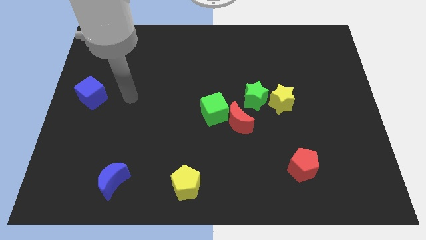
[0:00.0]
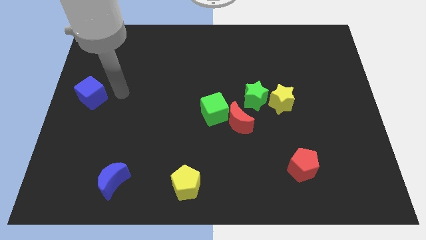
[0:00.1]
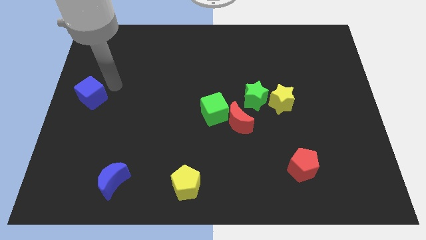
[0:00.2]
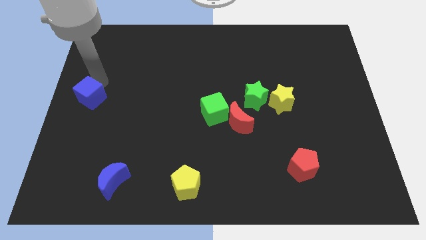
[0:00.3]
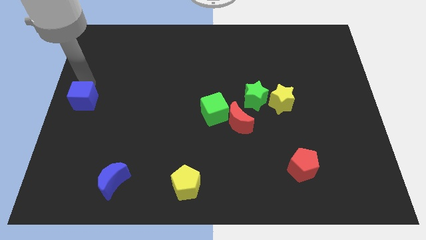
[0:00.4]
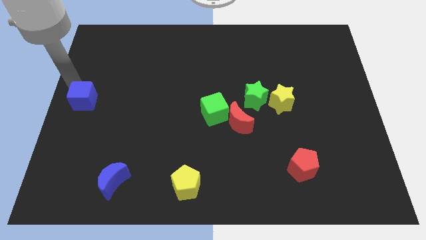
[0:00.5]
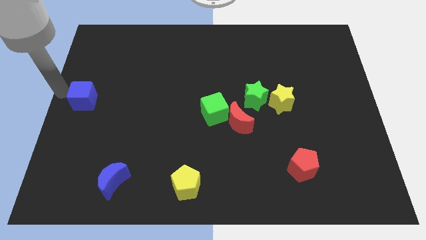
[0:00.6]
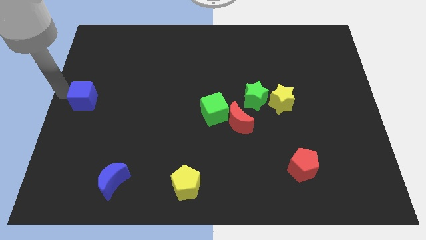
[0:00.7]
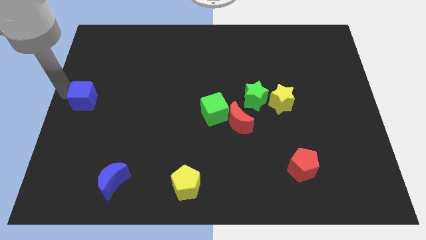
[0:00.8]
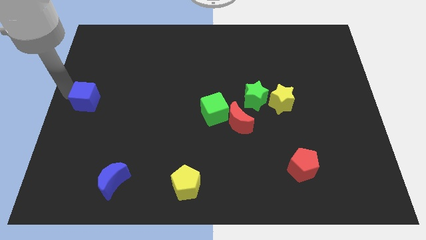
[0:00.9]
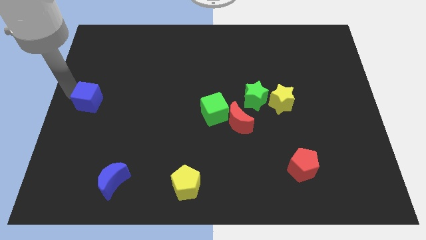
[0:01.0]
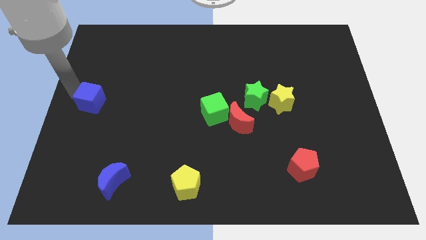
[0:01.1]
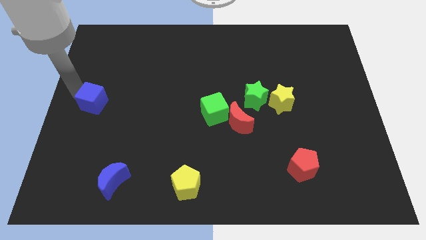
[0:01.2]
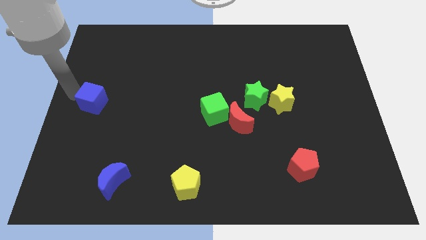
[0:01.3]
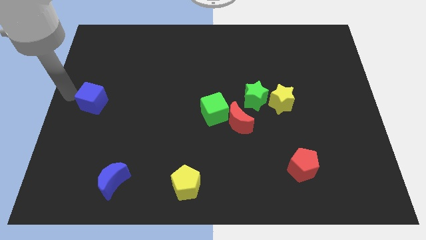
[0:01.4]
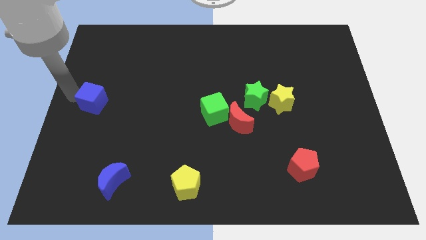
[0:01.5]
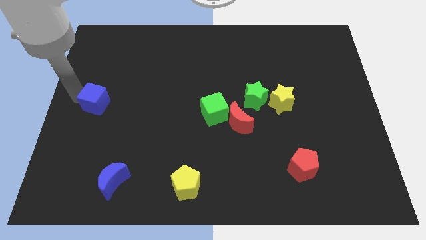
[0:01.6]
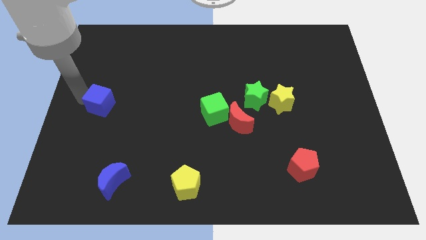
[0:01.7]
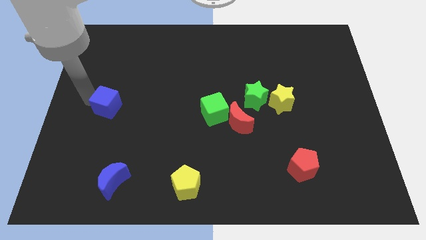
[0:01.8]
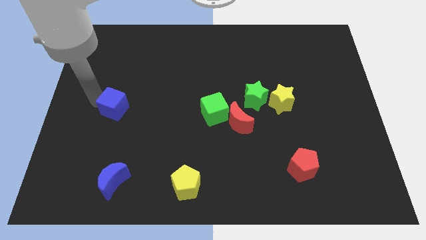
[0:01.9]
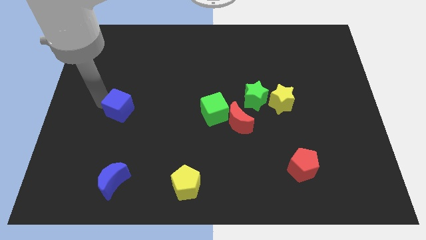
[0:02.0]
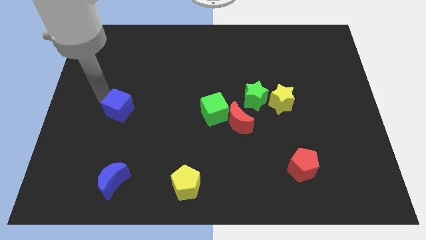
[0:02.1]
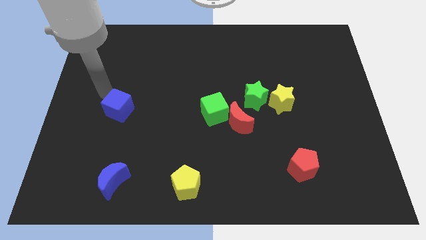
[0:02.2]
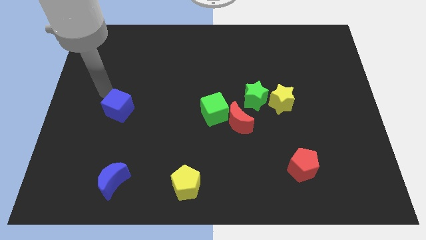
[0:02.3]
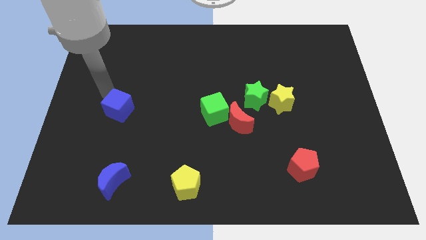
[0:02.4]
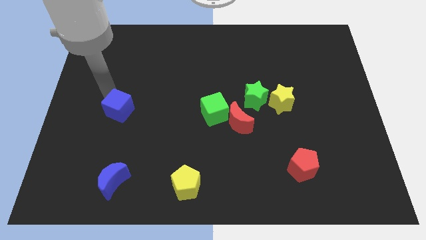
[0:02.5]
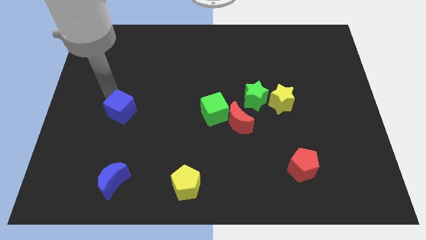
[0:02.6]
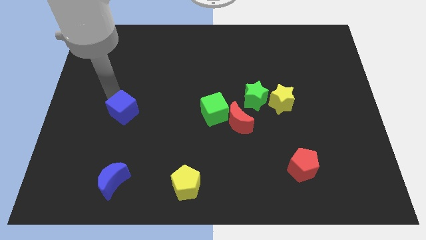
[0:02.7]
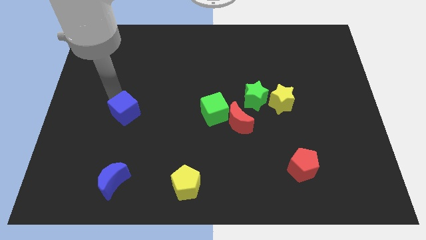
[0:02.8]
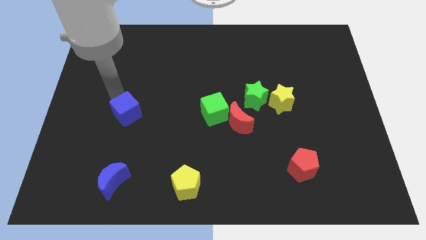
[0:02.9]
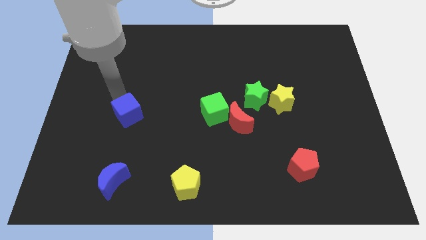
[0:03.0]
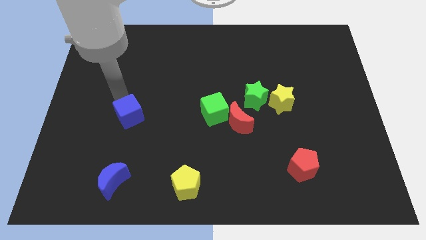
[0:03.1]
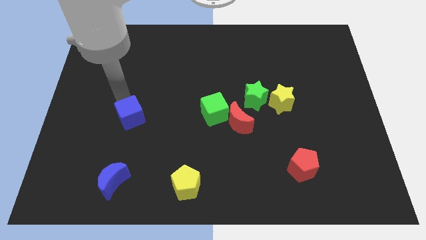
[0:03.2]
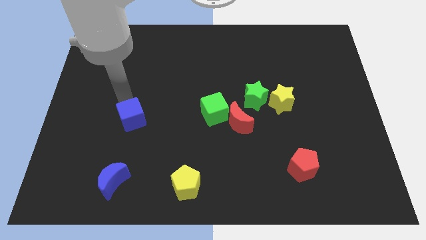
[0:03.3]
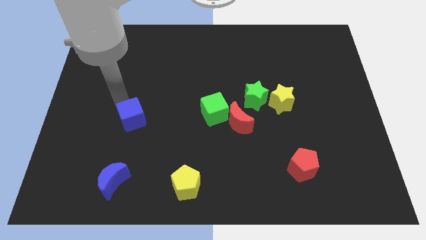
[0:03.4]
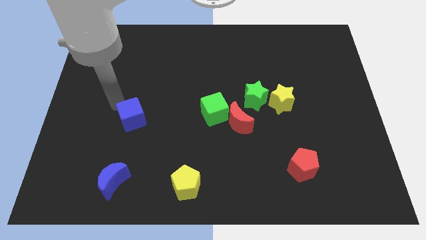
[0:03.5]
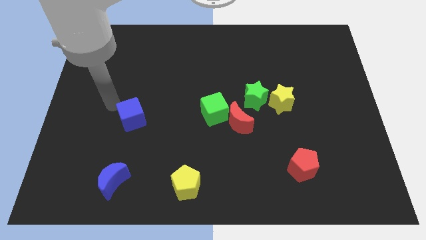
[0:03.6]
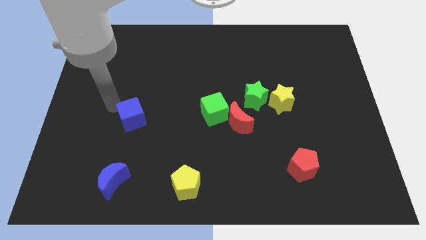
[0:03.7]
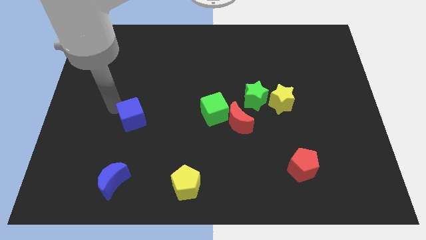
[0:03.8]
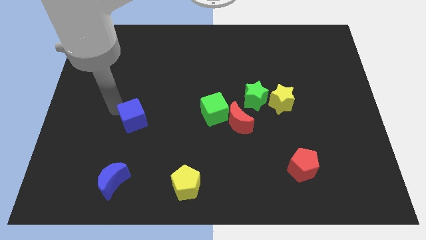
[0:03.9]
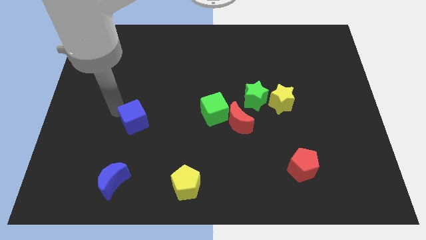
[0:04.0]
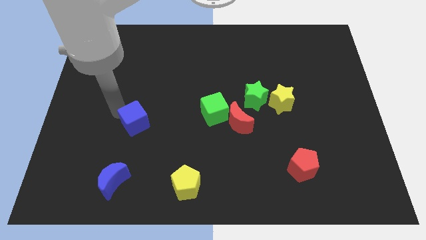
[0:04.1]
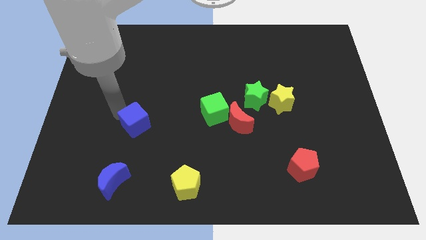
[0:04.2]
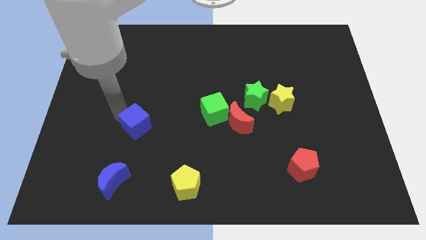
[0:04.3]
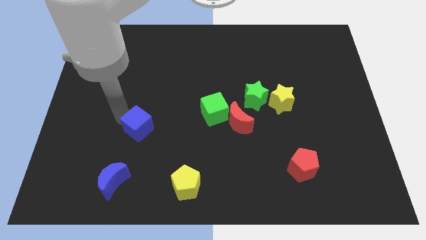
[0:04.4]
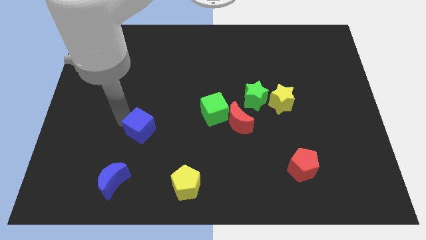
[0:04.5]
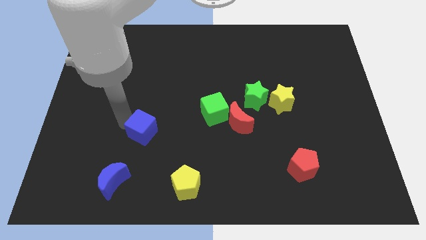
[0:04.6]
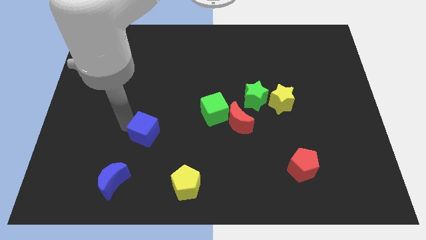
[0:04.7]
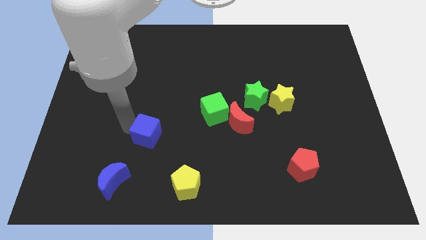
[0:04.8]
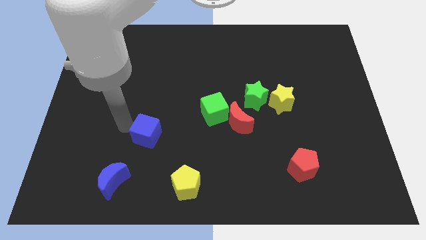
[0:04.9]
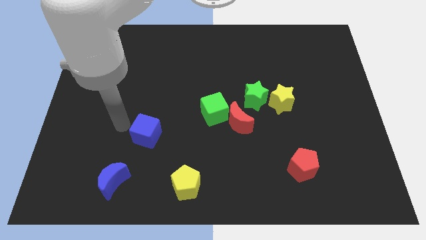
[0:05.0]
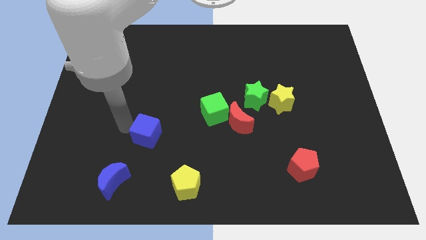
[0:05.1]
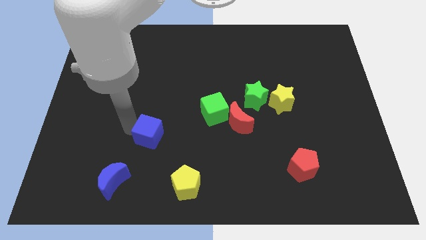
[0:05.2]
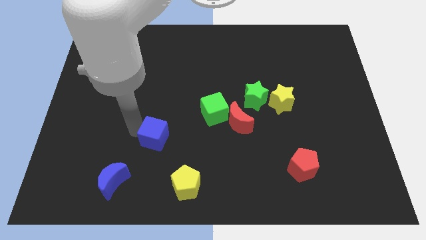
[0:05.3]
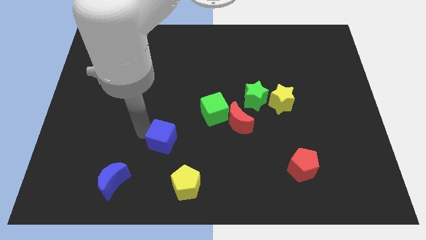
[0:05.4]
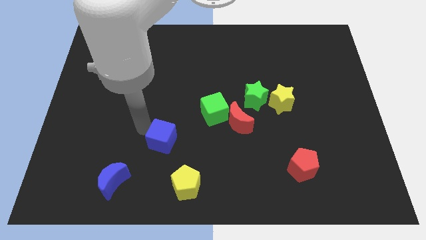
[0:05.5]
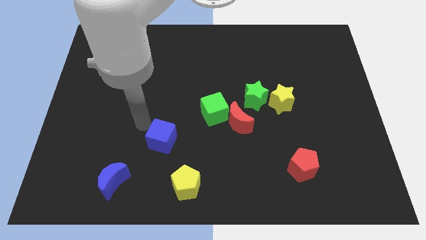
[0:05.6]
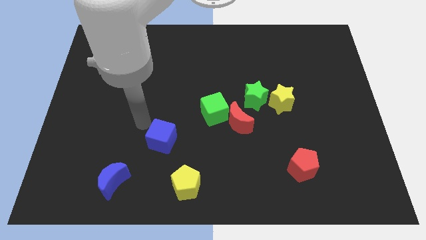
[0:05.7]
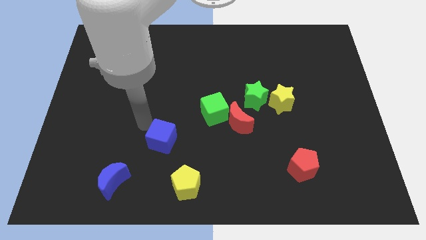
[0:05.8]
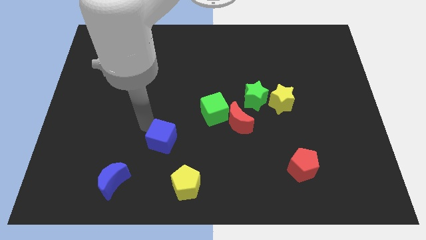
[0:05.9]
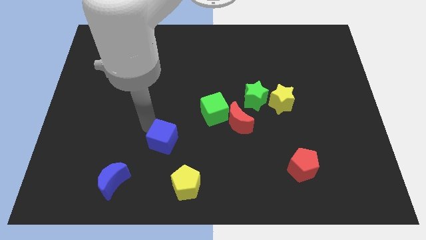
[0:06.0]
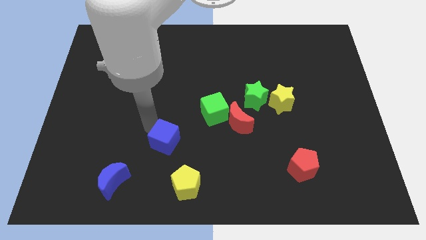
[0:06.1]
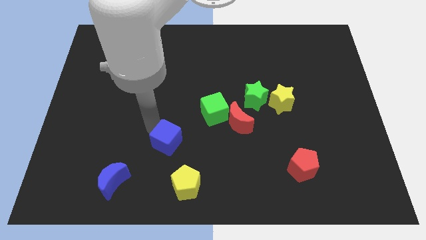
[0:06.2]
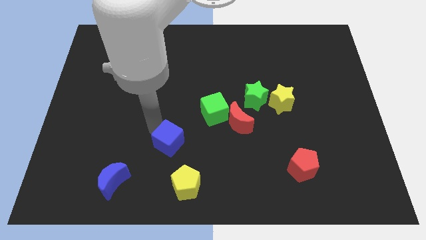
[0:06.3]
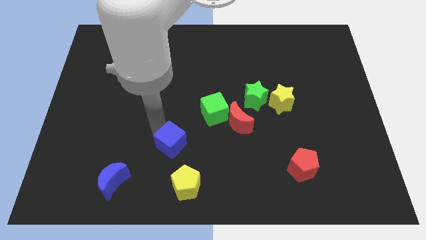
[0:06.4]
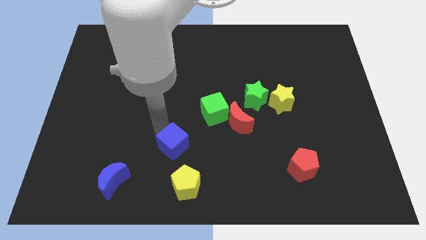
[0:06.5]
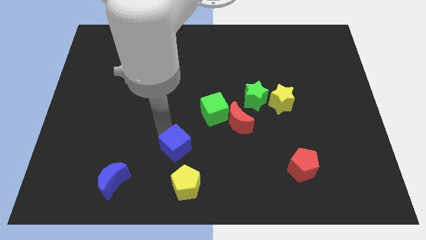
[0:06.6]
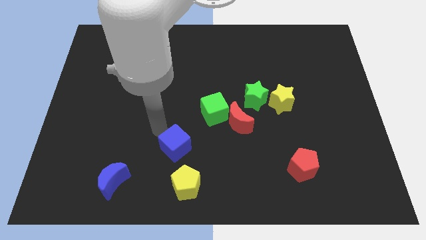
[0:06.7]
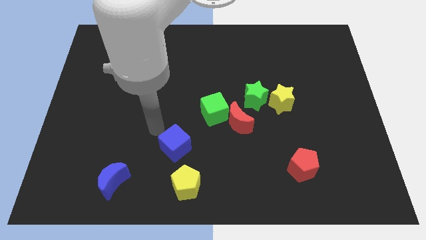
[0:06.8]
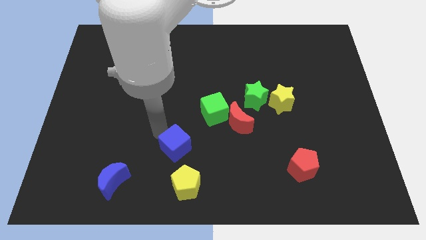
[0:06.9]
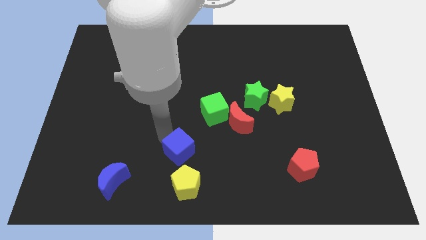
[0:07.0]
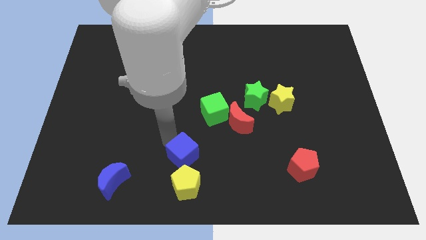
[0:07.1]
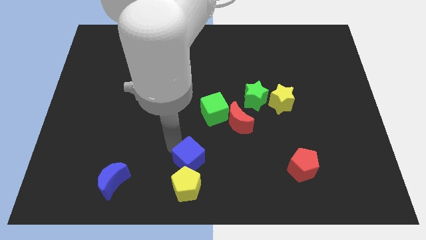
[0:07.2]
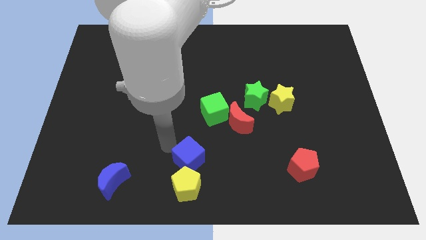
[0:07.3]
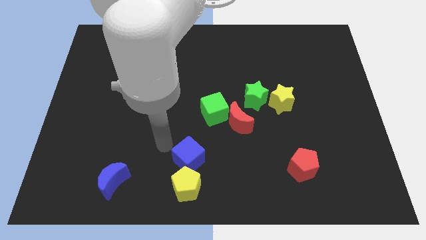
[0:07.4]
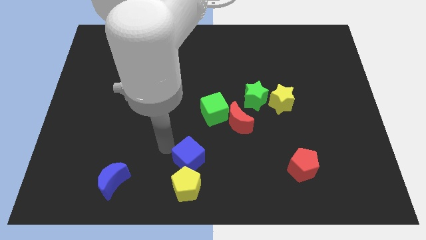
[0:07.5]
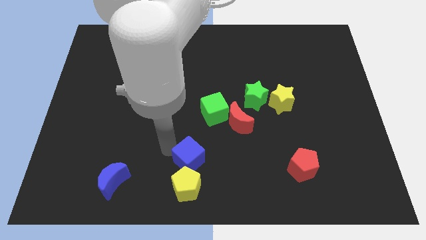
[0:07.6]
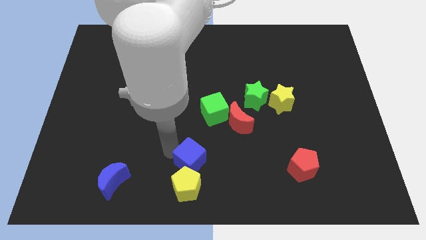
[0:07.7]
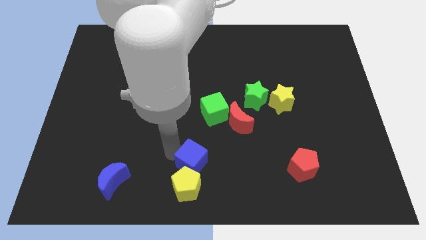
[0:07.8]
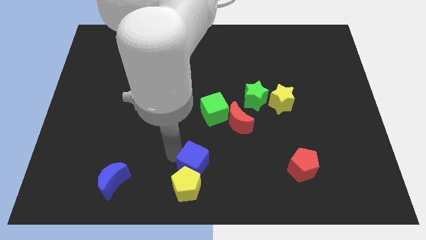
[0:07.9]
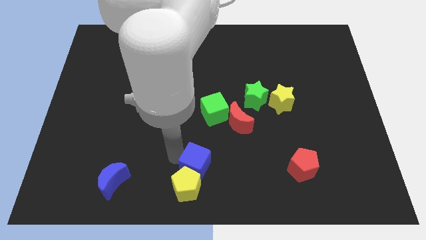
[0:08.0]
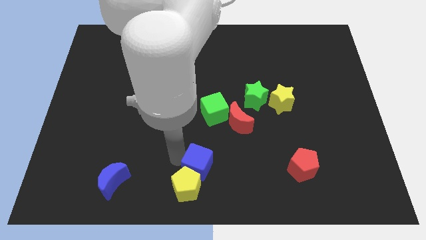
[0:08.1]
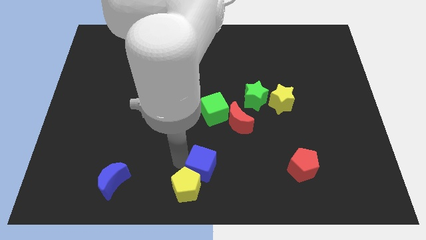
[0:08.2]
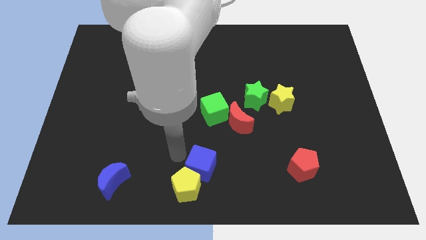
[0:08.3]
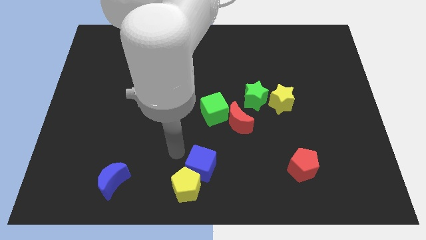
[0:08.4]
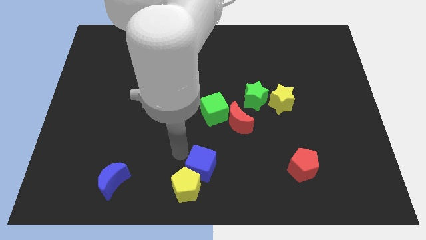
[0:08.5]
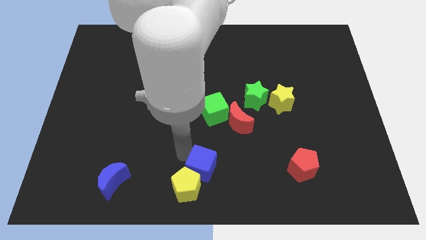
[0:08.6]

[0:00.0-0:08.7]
slide the blue cube just right of the yellow pentagon
